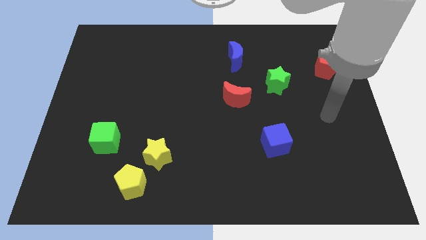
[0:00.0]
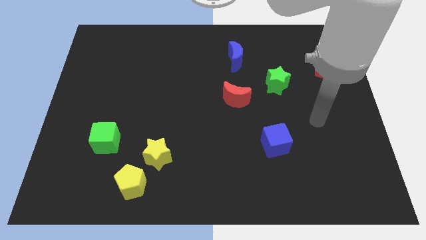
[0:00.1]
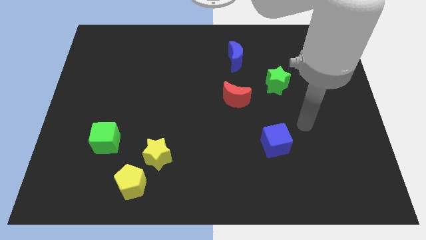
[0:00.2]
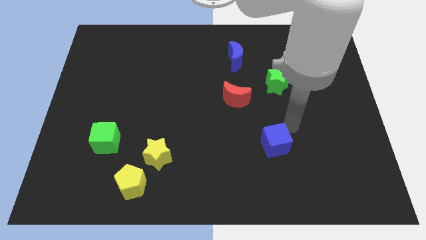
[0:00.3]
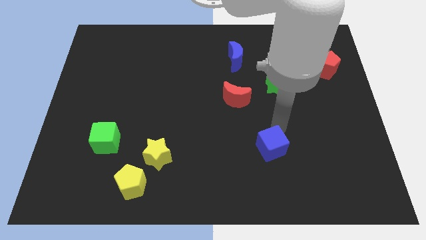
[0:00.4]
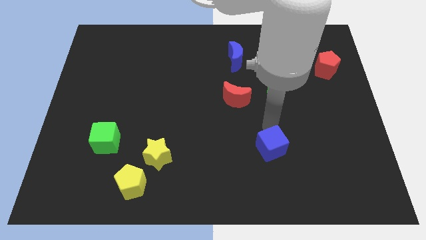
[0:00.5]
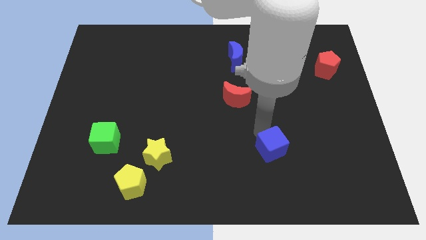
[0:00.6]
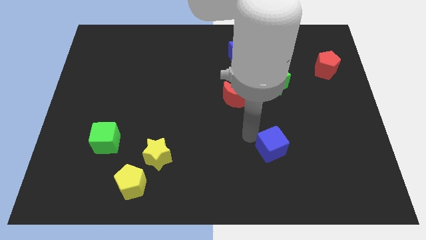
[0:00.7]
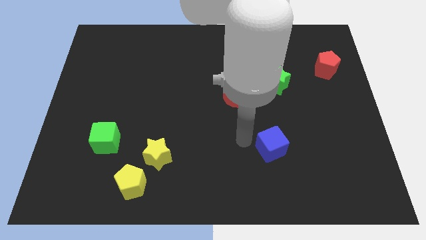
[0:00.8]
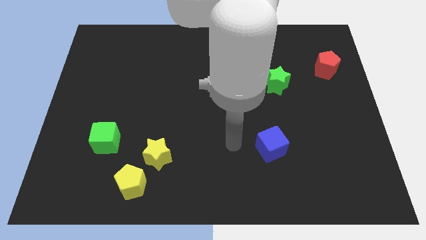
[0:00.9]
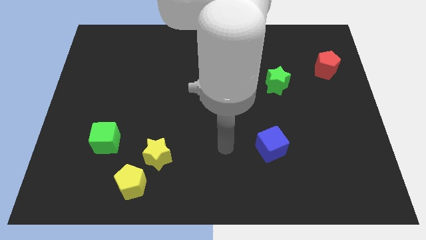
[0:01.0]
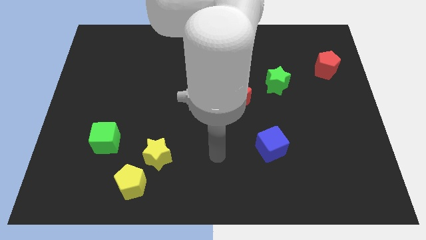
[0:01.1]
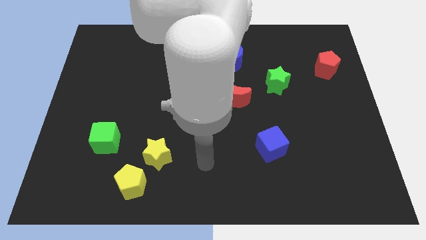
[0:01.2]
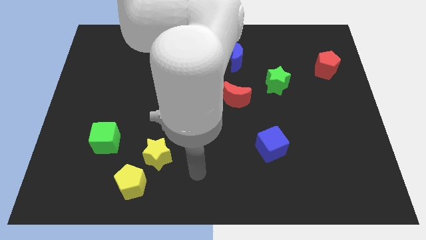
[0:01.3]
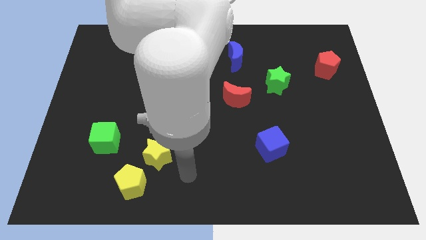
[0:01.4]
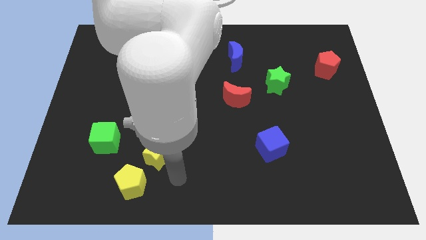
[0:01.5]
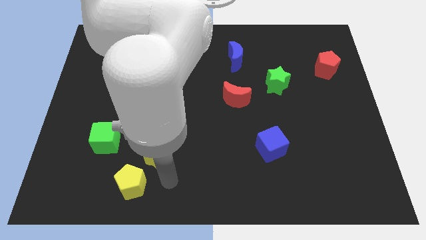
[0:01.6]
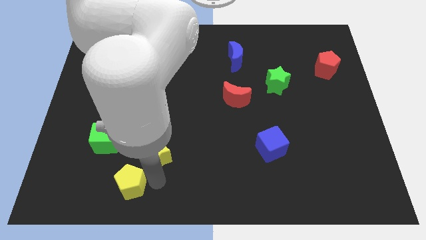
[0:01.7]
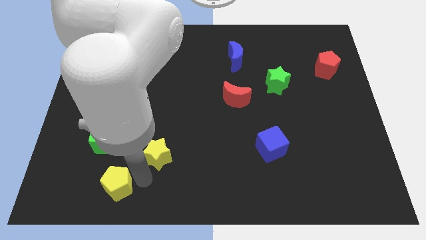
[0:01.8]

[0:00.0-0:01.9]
move the yellow star away from the yellow pentagon

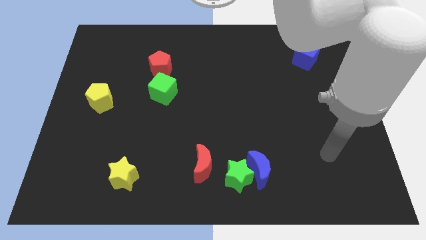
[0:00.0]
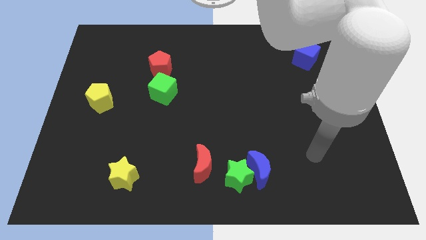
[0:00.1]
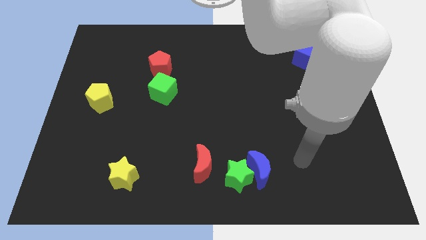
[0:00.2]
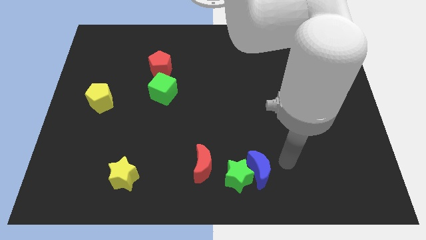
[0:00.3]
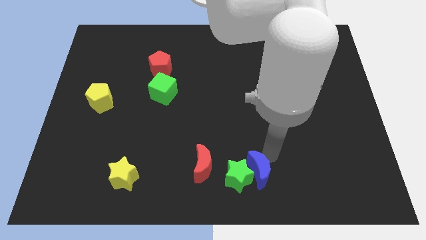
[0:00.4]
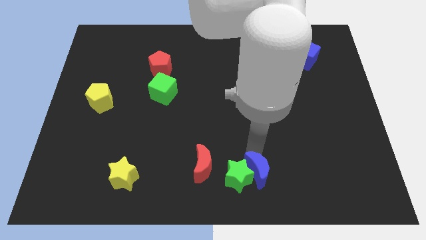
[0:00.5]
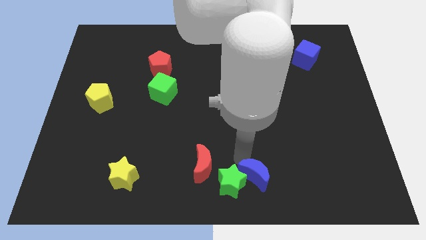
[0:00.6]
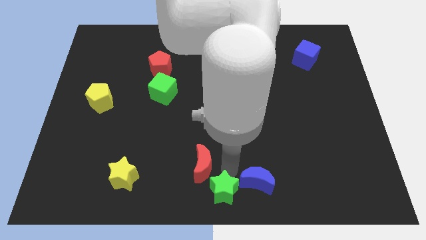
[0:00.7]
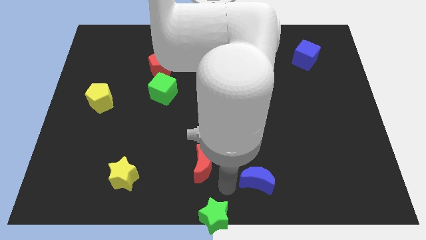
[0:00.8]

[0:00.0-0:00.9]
pull the blue moon apart from the green star

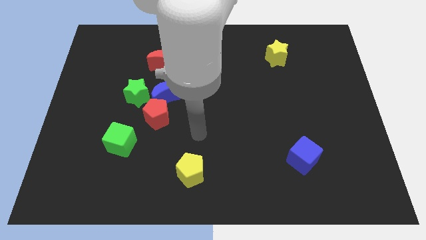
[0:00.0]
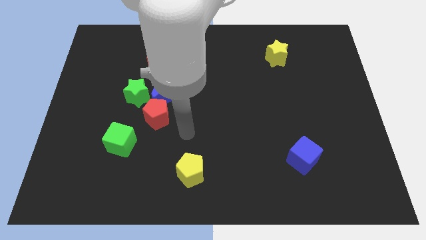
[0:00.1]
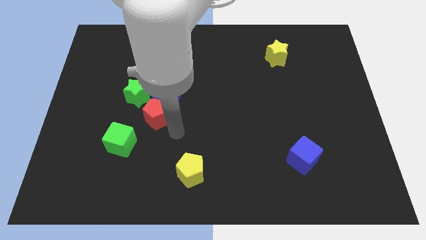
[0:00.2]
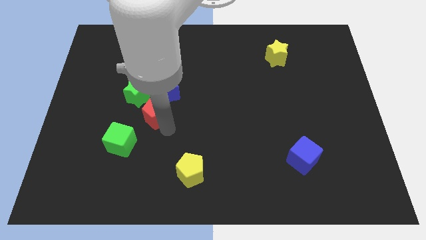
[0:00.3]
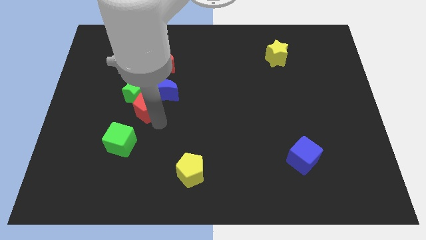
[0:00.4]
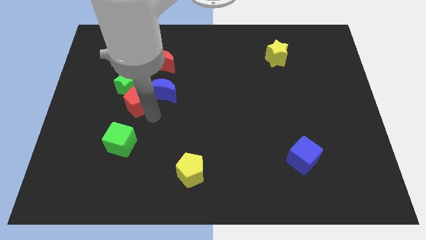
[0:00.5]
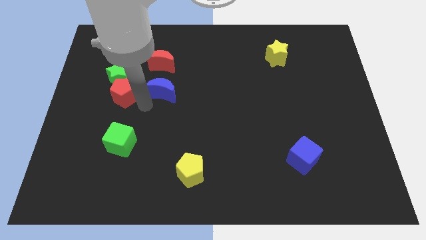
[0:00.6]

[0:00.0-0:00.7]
move the blue moon away from the red pentagon and green star

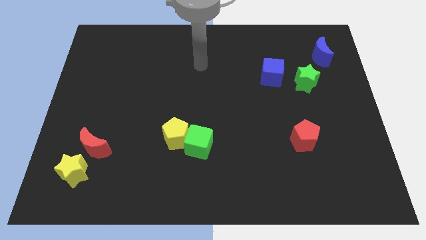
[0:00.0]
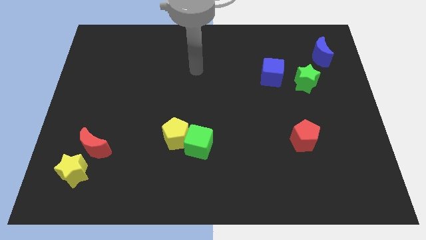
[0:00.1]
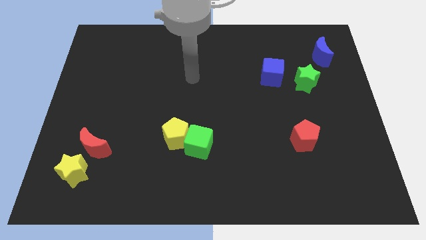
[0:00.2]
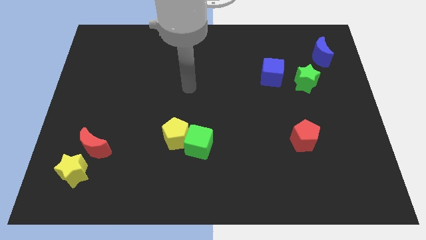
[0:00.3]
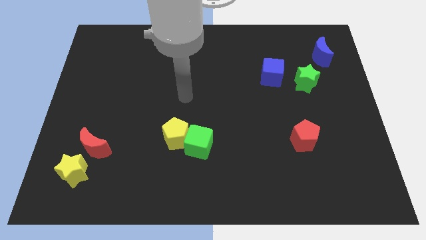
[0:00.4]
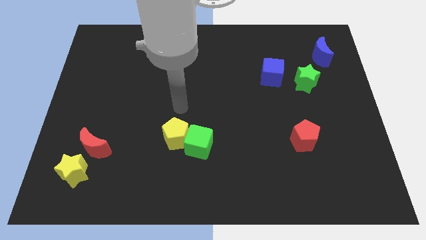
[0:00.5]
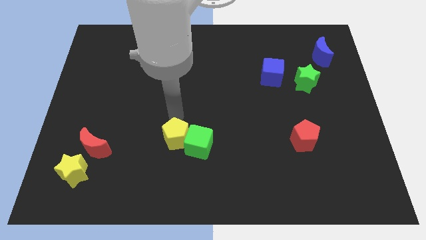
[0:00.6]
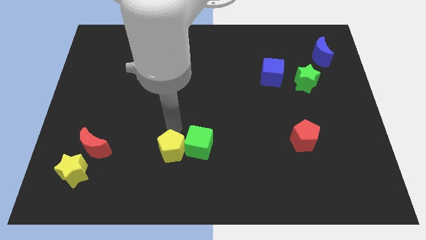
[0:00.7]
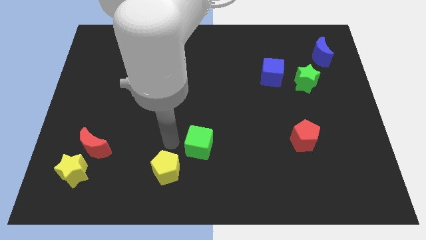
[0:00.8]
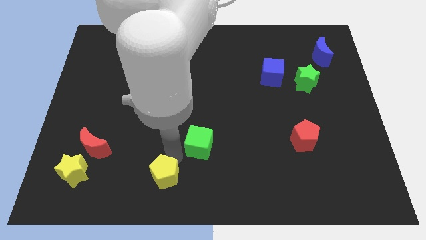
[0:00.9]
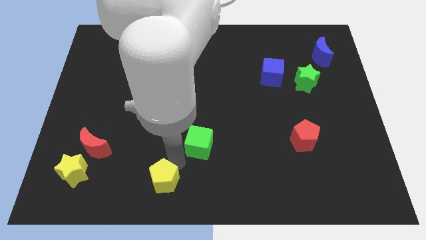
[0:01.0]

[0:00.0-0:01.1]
move the green cube away from the yellow pentagon

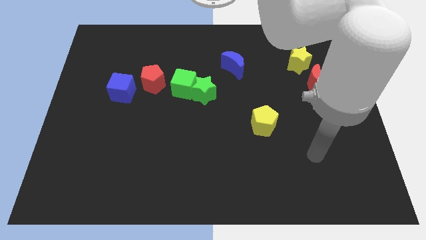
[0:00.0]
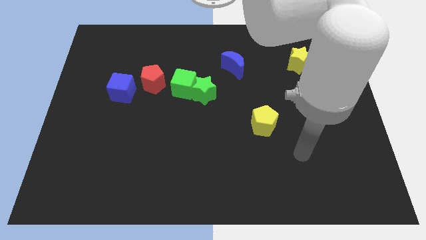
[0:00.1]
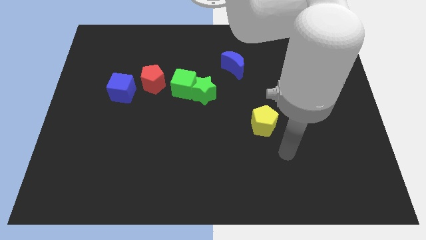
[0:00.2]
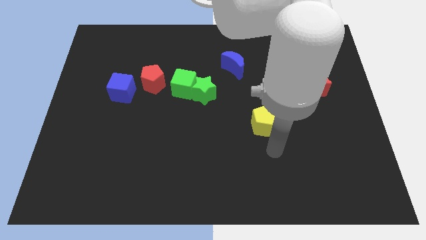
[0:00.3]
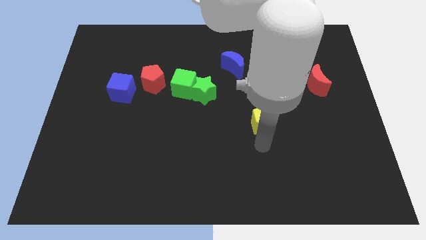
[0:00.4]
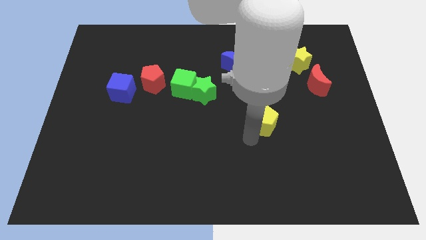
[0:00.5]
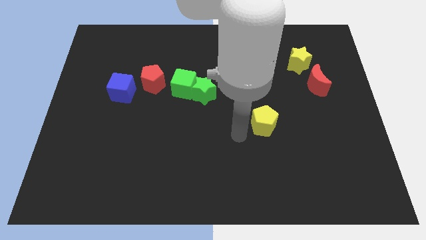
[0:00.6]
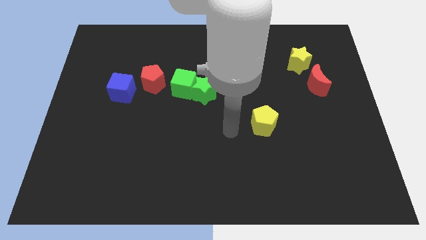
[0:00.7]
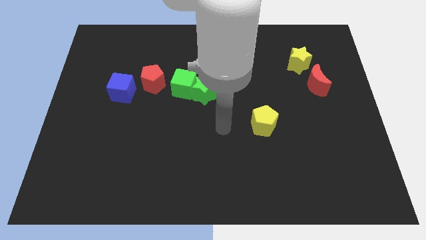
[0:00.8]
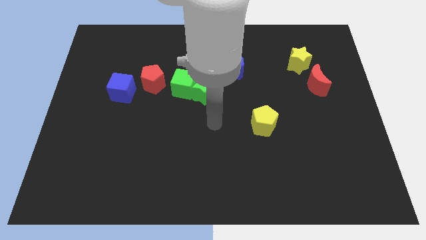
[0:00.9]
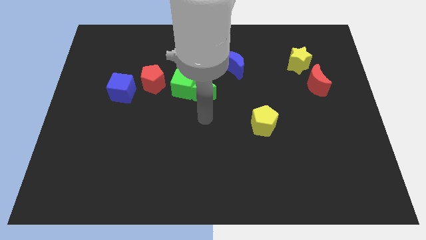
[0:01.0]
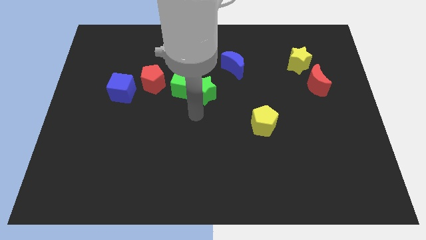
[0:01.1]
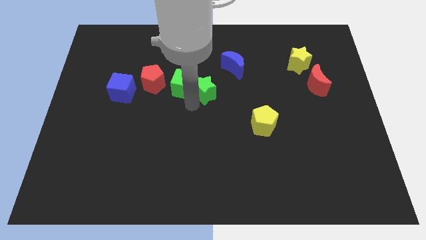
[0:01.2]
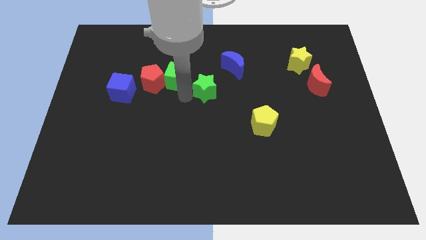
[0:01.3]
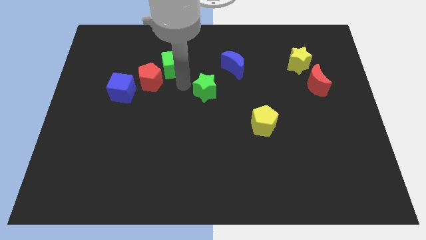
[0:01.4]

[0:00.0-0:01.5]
pull the green star apart from the green cube

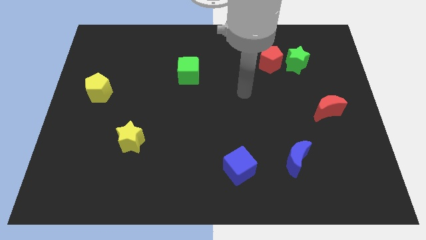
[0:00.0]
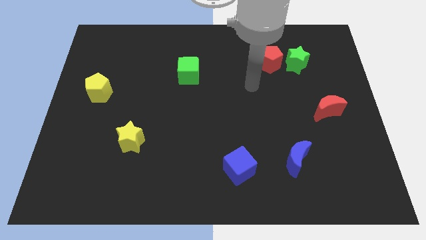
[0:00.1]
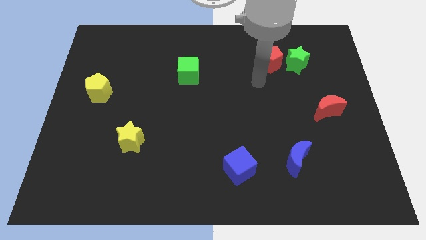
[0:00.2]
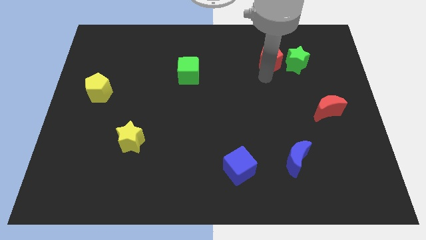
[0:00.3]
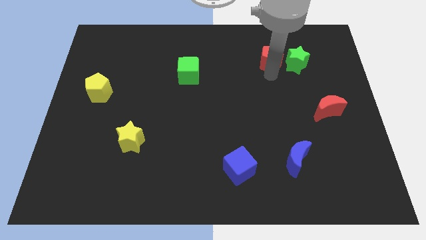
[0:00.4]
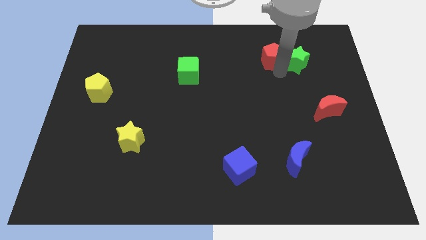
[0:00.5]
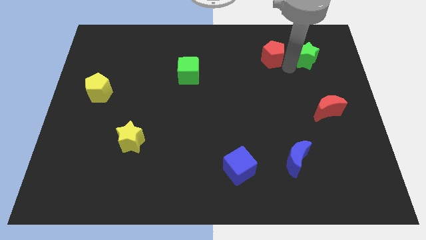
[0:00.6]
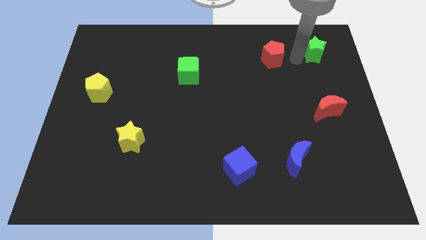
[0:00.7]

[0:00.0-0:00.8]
pull the red pentagon apart from the green star

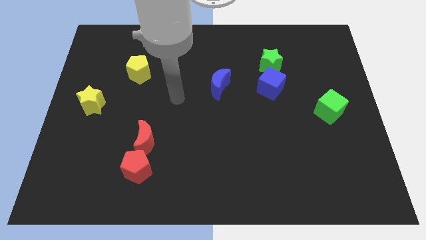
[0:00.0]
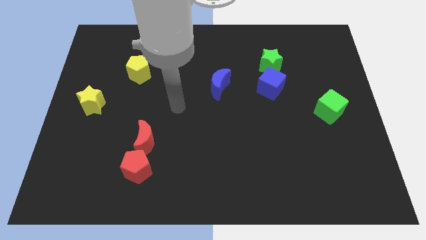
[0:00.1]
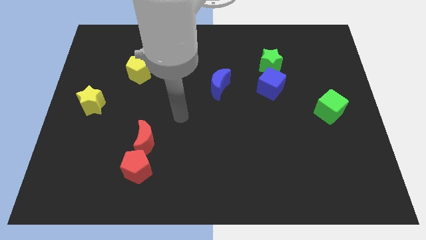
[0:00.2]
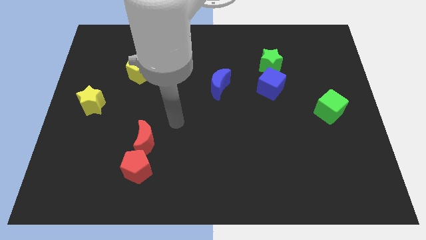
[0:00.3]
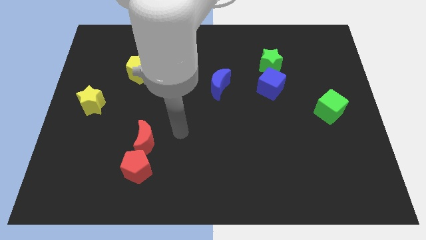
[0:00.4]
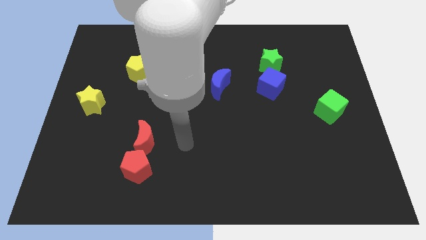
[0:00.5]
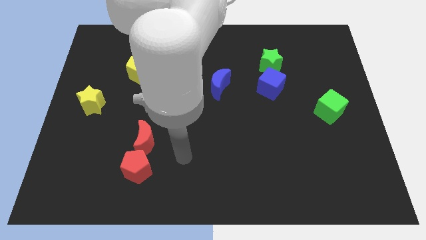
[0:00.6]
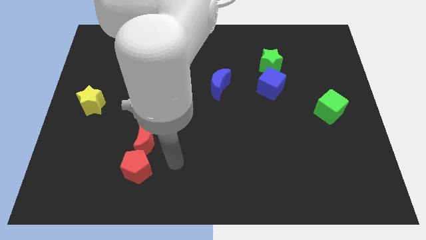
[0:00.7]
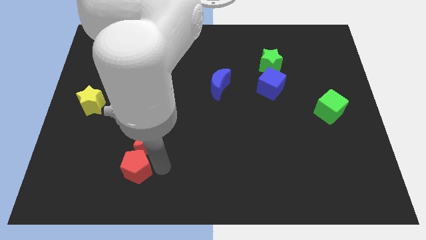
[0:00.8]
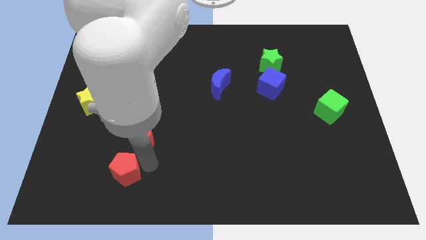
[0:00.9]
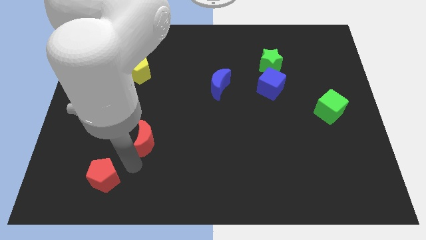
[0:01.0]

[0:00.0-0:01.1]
pull the red moon apart from the red pentagon

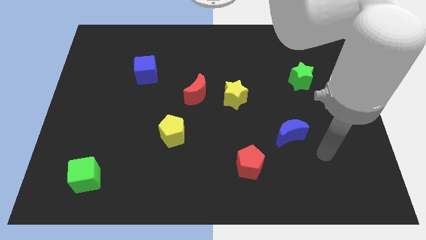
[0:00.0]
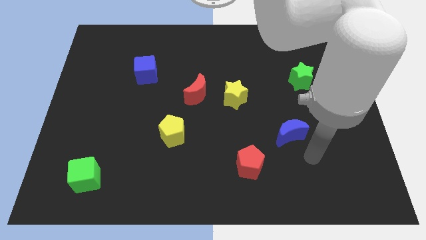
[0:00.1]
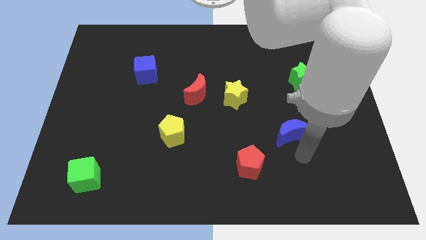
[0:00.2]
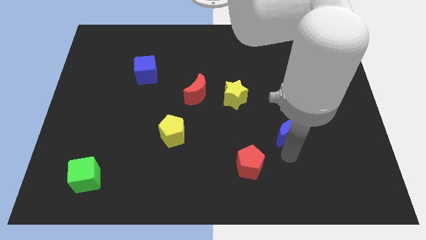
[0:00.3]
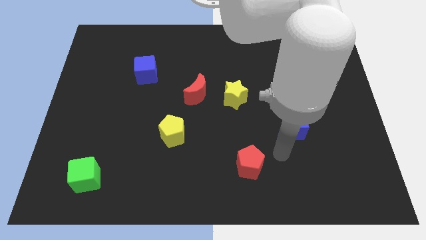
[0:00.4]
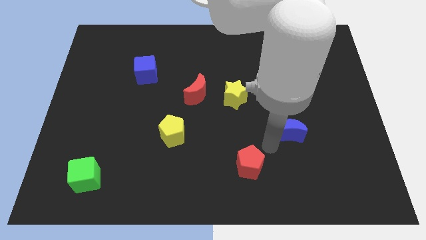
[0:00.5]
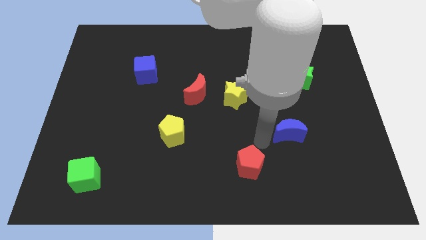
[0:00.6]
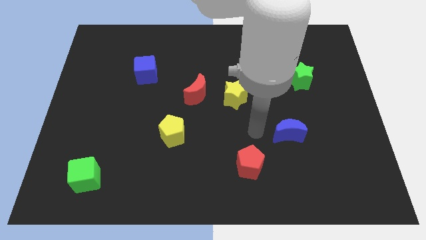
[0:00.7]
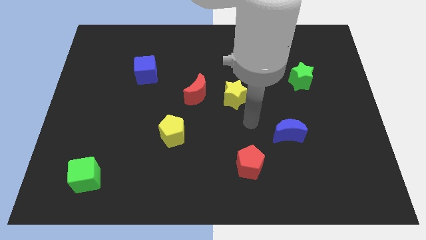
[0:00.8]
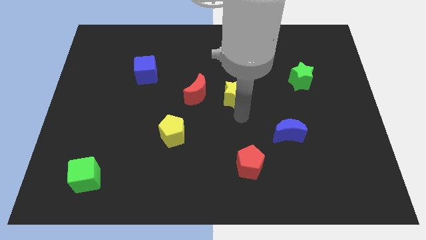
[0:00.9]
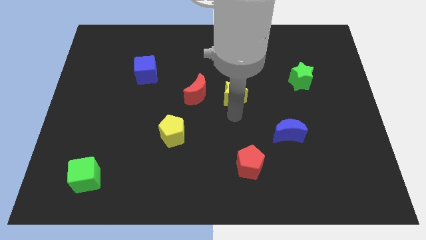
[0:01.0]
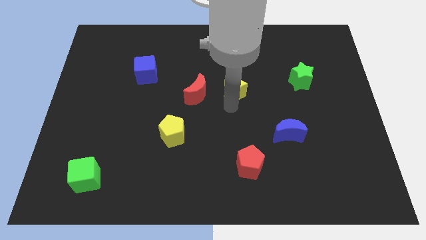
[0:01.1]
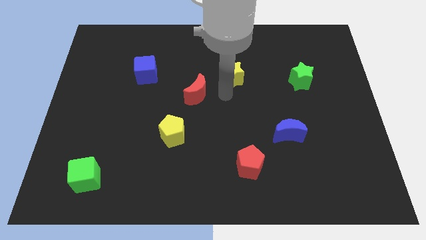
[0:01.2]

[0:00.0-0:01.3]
separate the red moon from the yellow star
